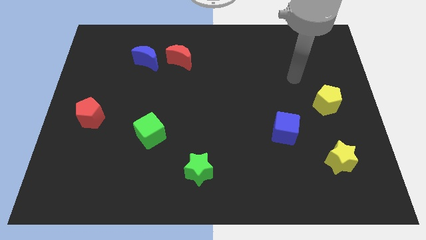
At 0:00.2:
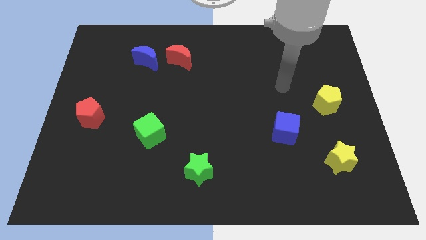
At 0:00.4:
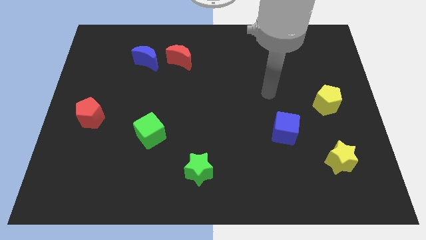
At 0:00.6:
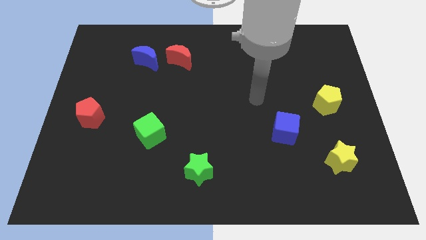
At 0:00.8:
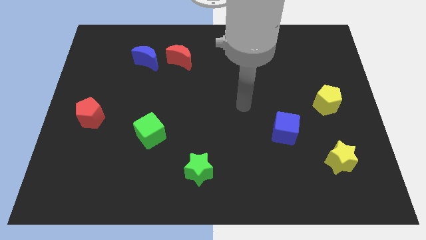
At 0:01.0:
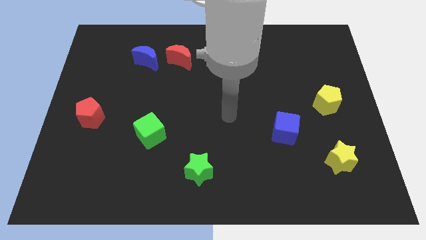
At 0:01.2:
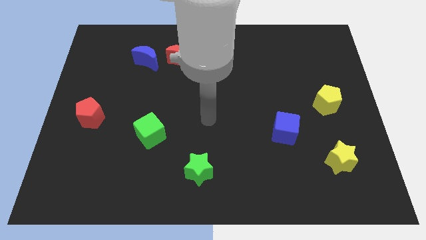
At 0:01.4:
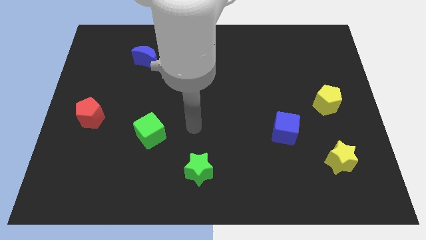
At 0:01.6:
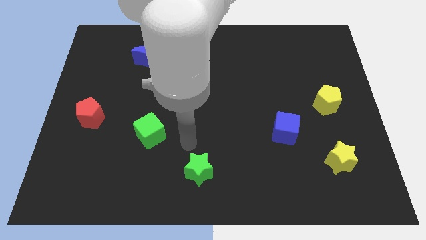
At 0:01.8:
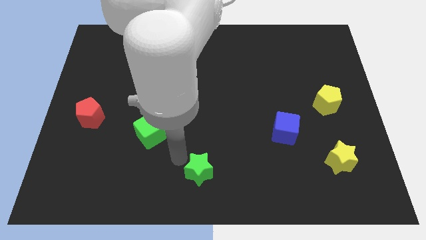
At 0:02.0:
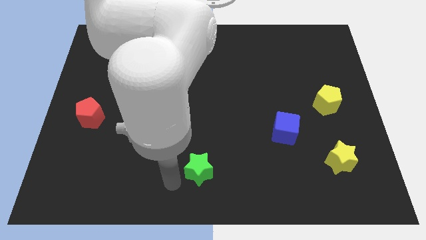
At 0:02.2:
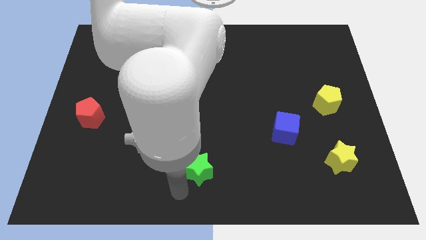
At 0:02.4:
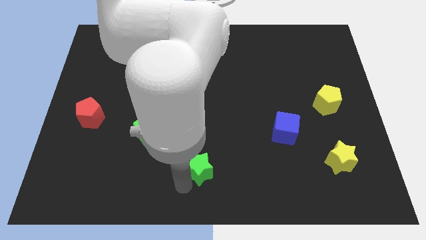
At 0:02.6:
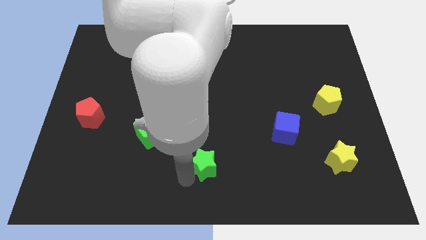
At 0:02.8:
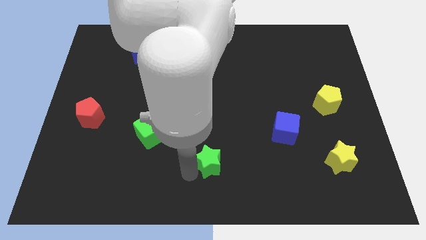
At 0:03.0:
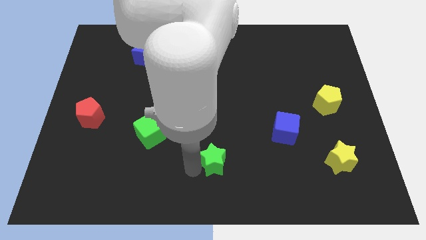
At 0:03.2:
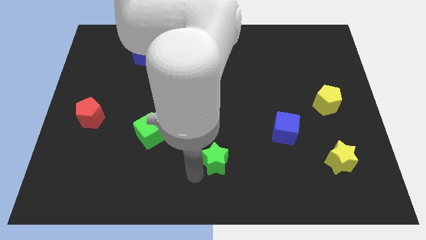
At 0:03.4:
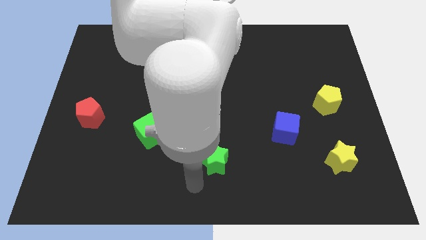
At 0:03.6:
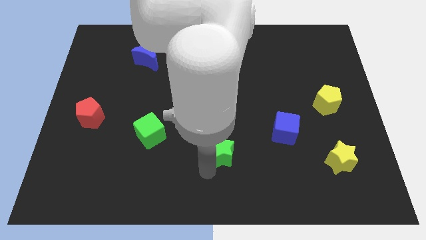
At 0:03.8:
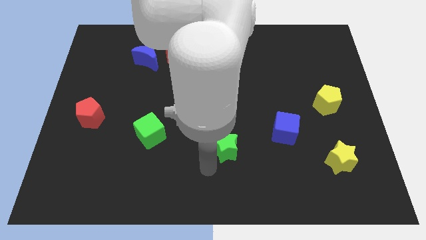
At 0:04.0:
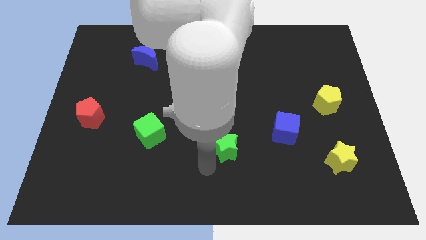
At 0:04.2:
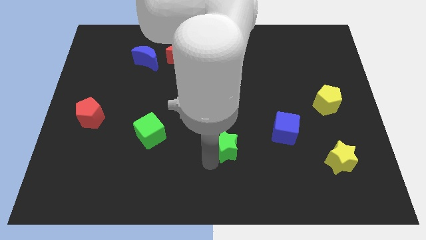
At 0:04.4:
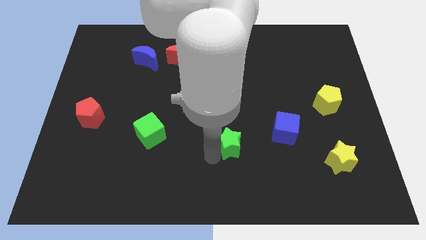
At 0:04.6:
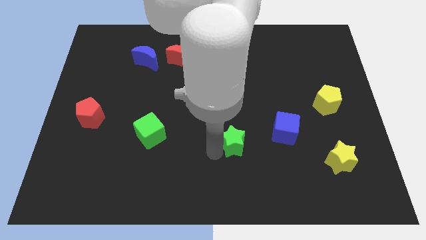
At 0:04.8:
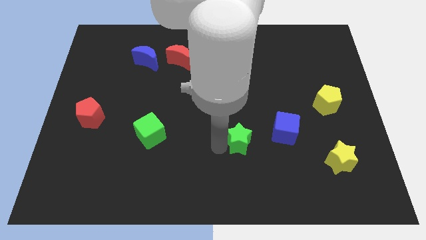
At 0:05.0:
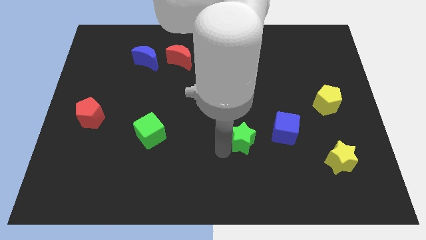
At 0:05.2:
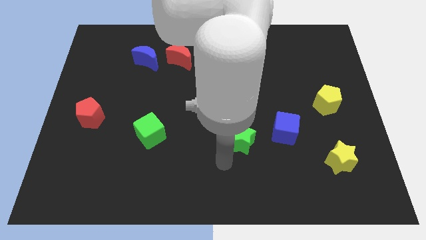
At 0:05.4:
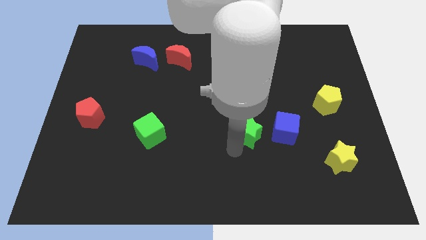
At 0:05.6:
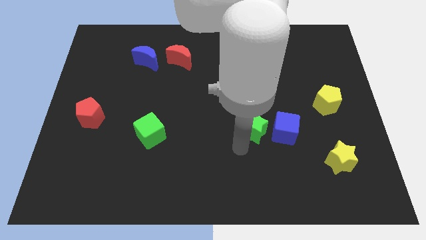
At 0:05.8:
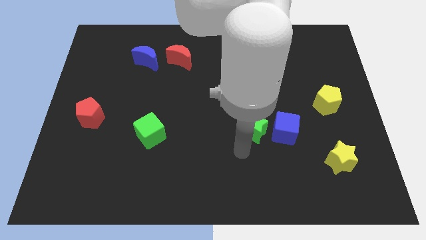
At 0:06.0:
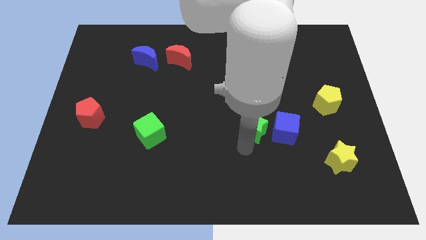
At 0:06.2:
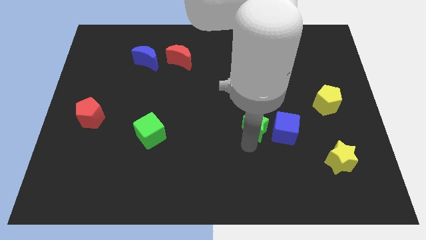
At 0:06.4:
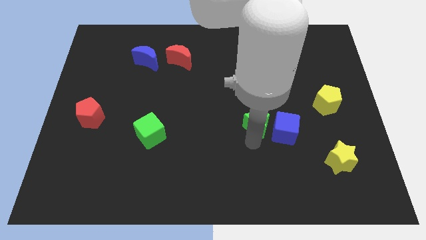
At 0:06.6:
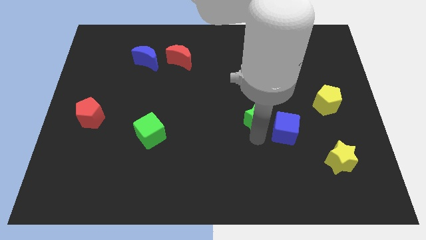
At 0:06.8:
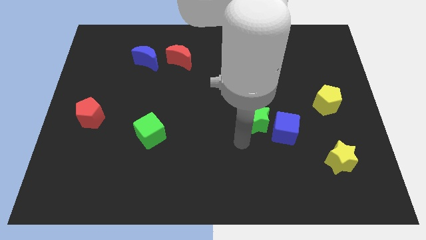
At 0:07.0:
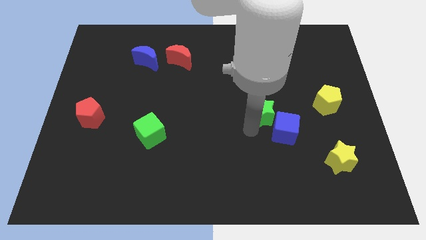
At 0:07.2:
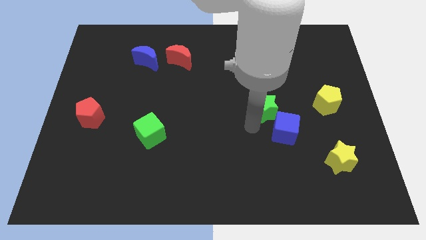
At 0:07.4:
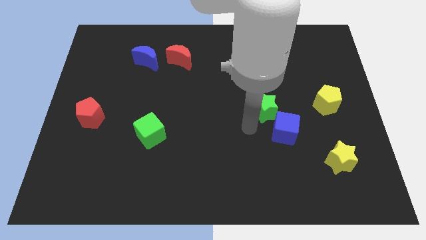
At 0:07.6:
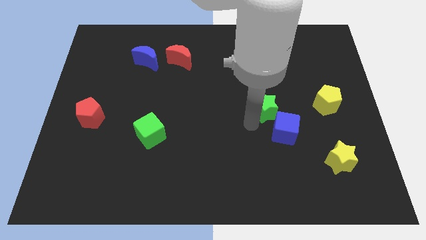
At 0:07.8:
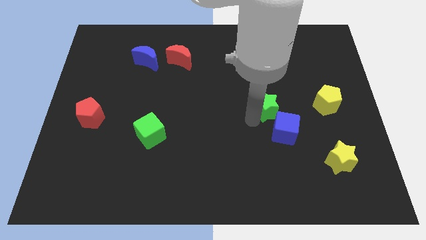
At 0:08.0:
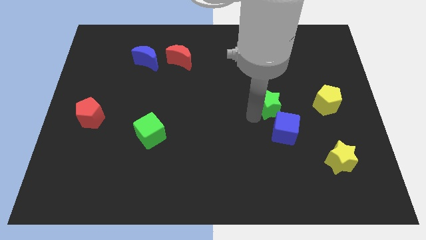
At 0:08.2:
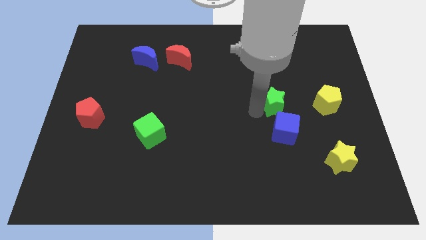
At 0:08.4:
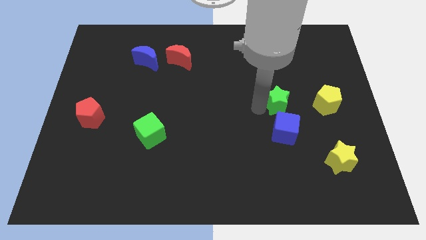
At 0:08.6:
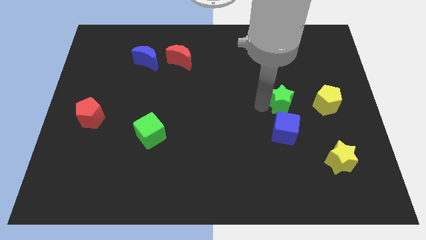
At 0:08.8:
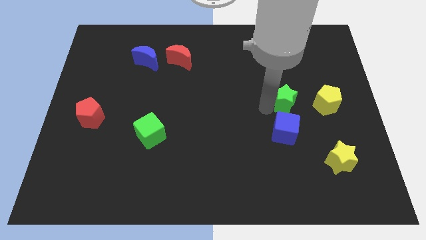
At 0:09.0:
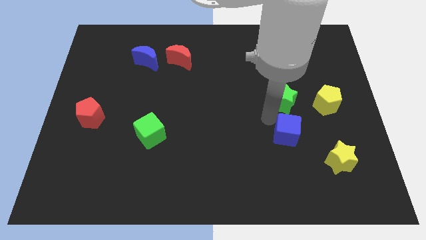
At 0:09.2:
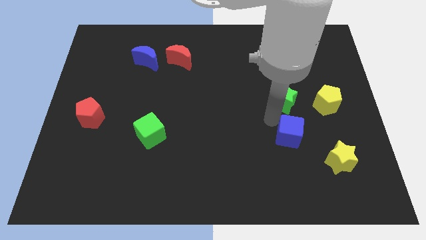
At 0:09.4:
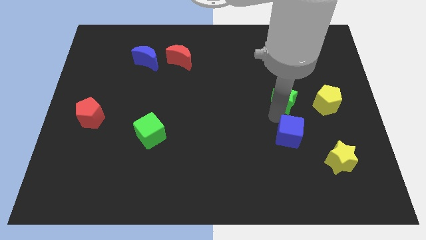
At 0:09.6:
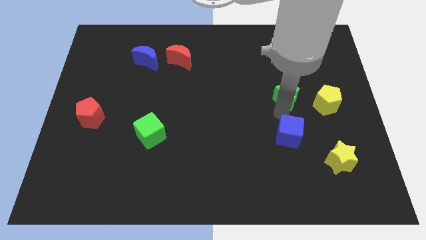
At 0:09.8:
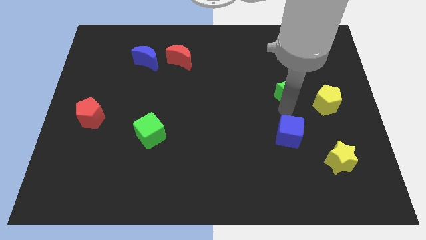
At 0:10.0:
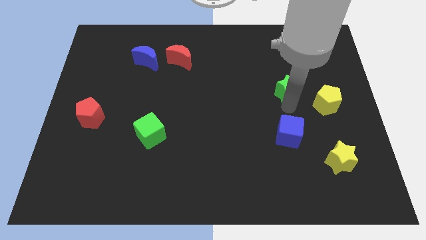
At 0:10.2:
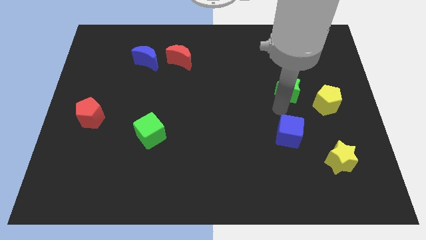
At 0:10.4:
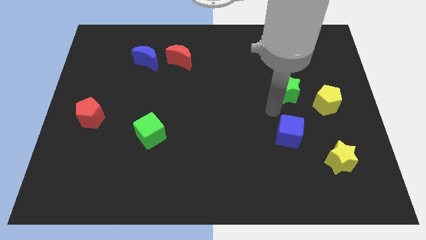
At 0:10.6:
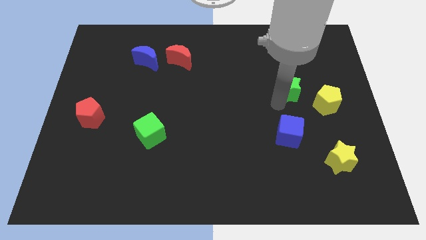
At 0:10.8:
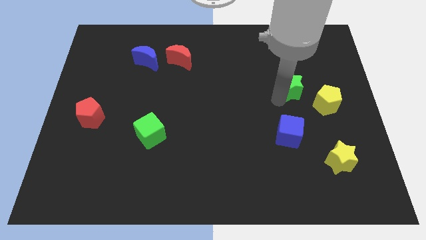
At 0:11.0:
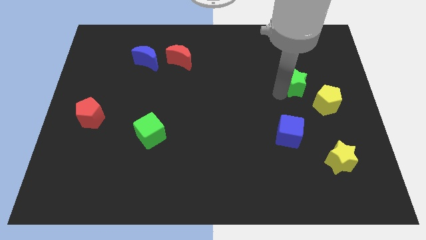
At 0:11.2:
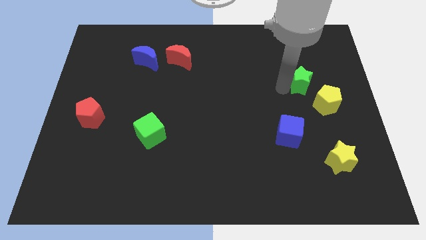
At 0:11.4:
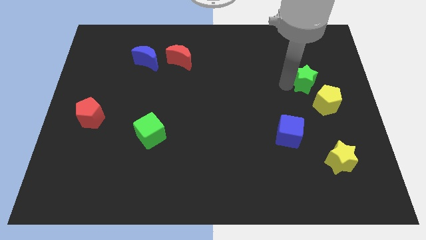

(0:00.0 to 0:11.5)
move the green star to the top side of the yellow pentagon
